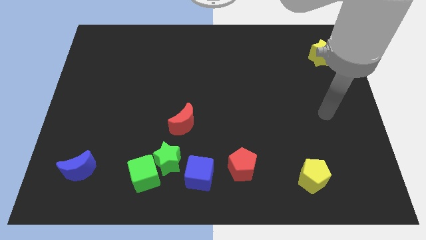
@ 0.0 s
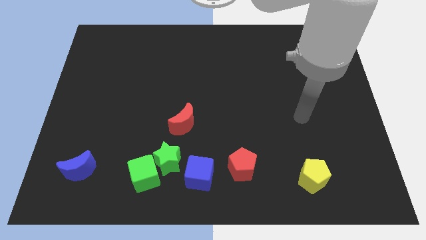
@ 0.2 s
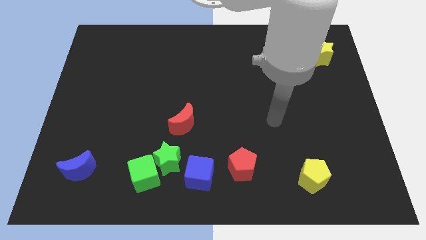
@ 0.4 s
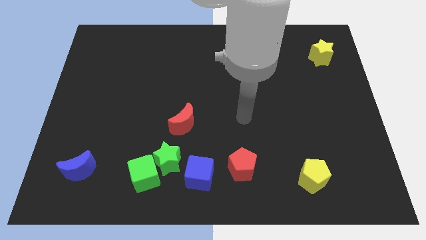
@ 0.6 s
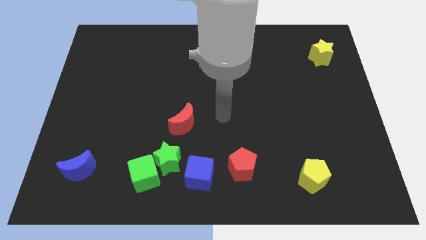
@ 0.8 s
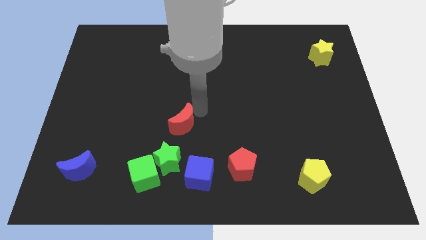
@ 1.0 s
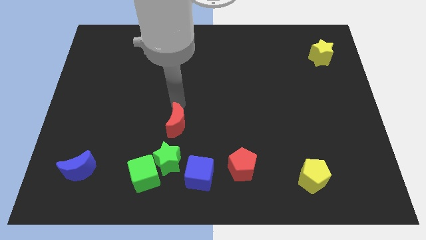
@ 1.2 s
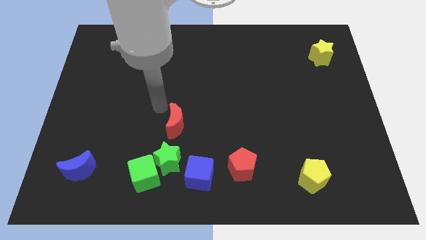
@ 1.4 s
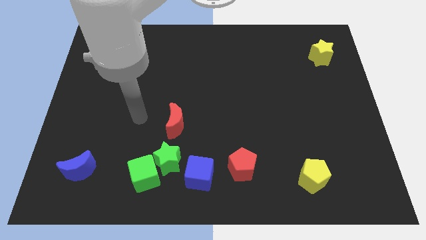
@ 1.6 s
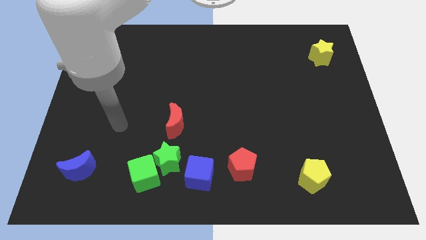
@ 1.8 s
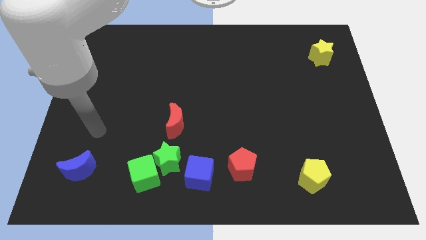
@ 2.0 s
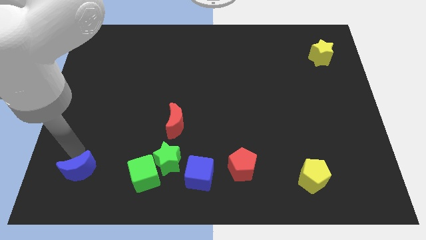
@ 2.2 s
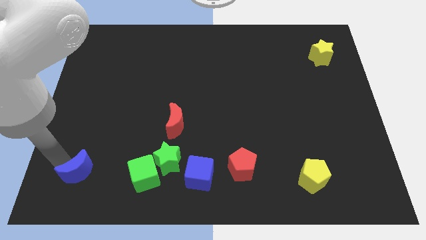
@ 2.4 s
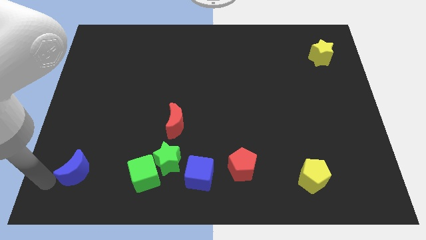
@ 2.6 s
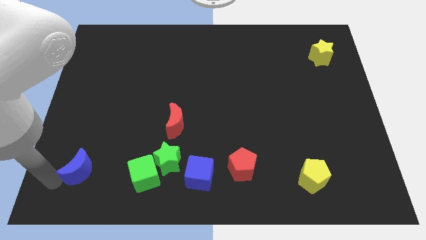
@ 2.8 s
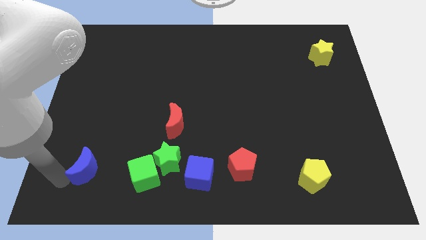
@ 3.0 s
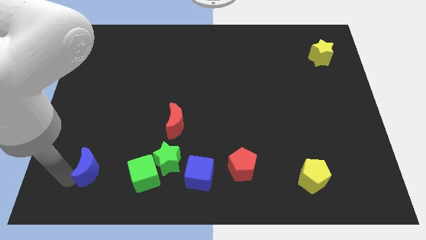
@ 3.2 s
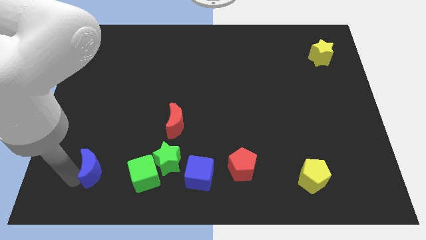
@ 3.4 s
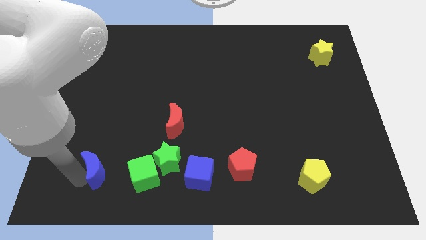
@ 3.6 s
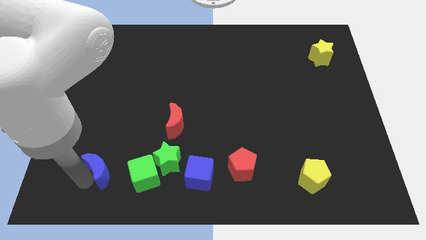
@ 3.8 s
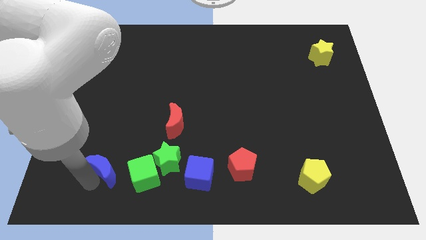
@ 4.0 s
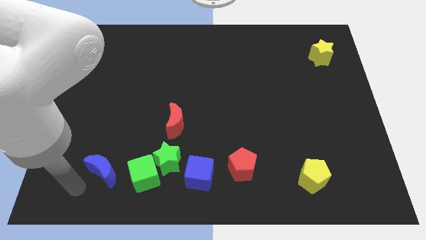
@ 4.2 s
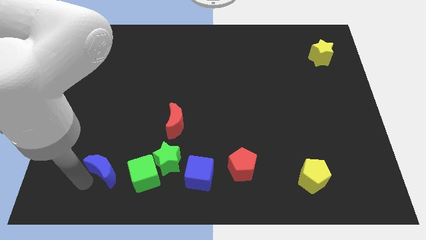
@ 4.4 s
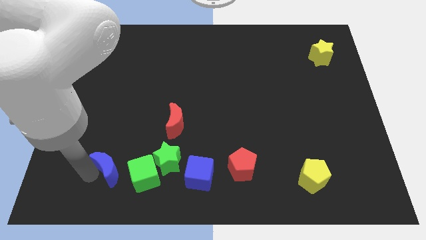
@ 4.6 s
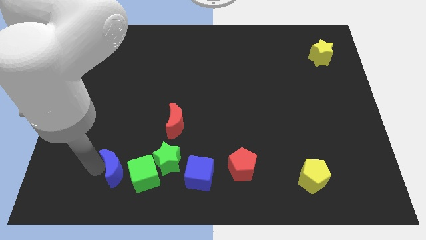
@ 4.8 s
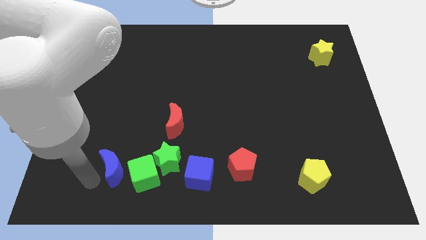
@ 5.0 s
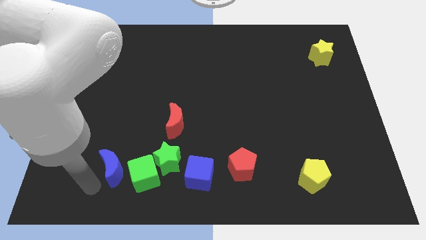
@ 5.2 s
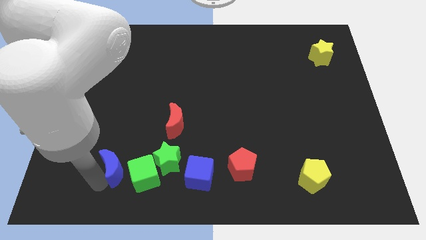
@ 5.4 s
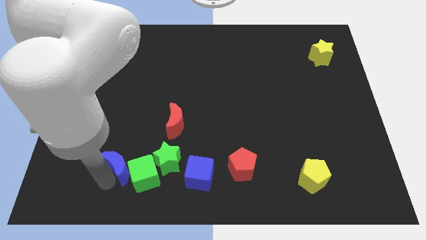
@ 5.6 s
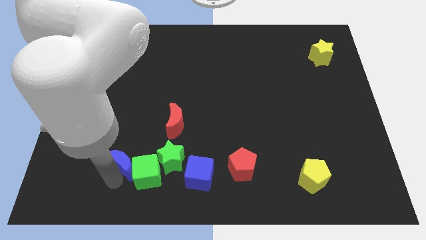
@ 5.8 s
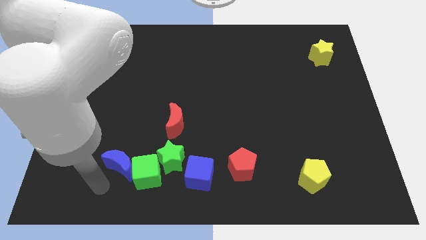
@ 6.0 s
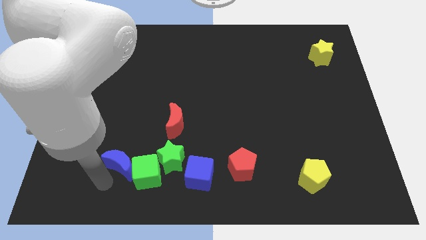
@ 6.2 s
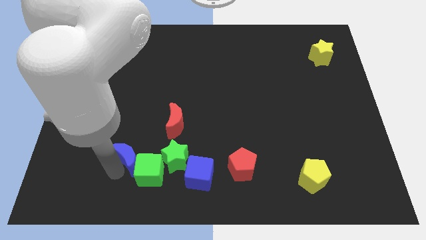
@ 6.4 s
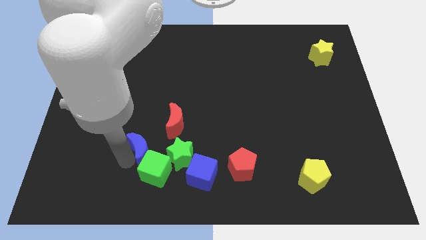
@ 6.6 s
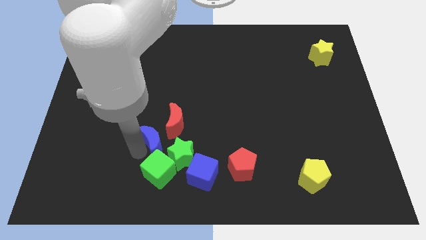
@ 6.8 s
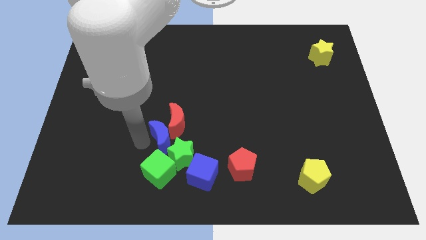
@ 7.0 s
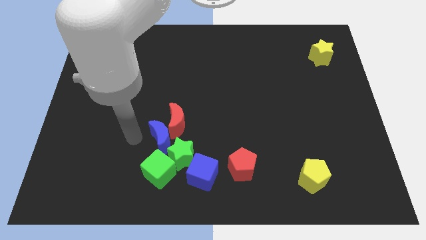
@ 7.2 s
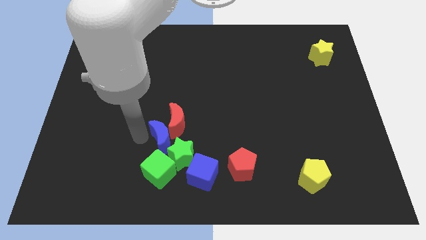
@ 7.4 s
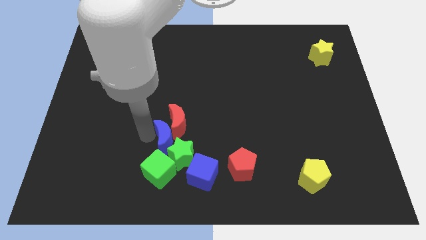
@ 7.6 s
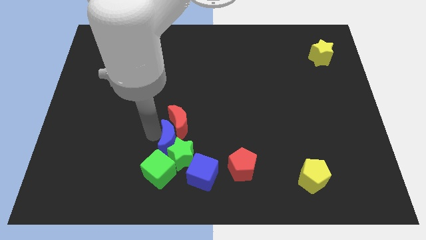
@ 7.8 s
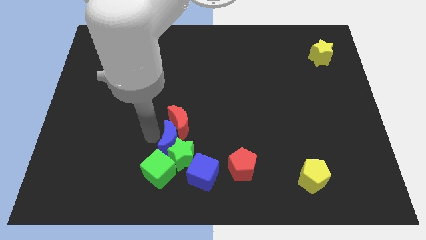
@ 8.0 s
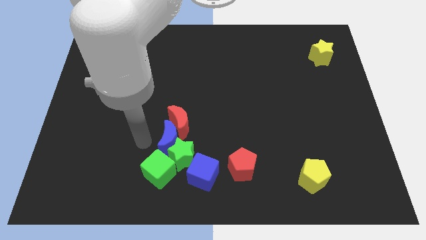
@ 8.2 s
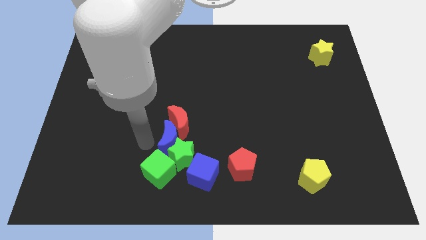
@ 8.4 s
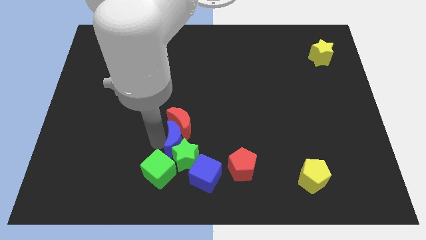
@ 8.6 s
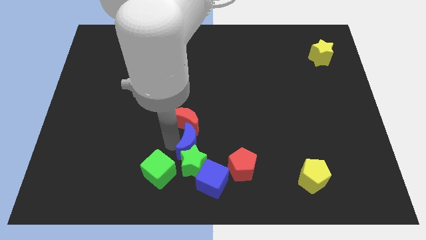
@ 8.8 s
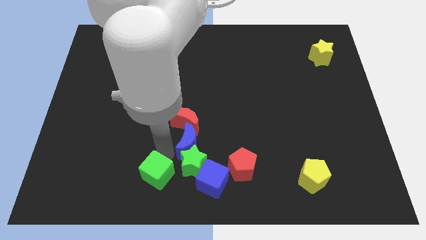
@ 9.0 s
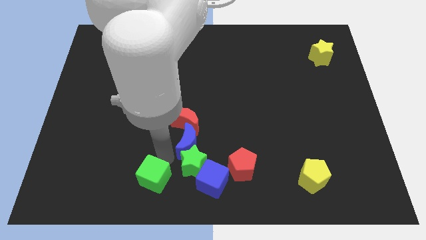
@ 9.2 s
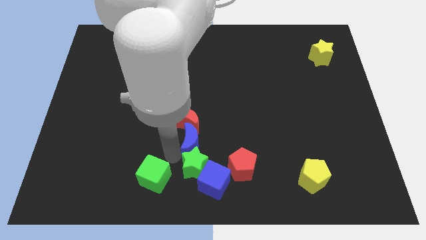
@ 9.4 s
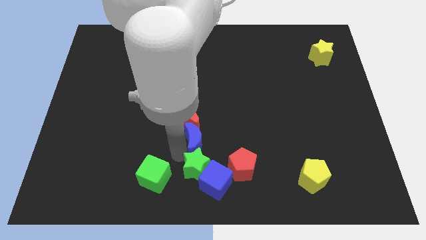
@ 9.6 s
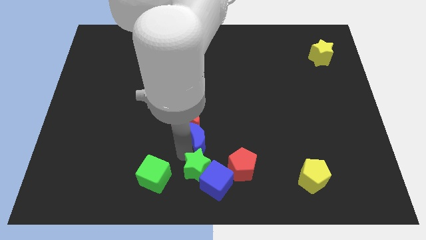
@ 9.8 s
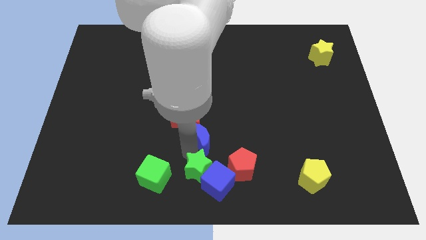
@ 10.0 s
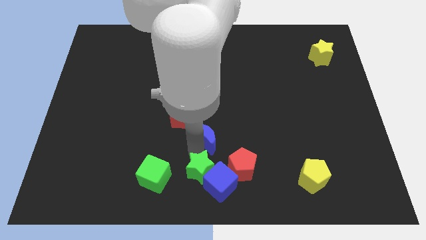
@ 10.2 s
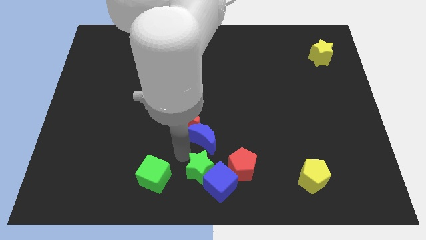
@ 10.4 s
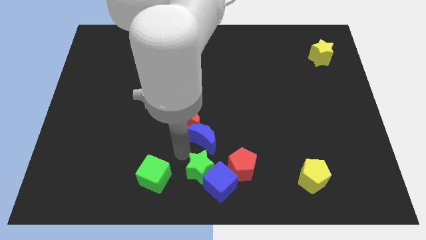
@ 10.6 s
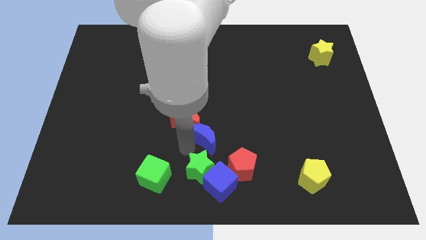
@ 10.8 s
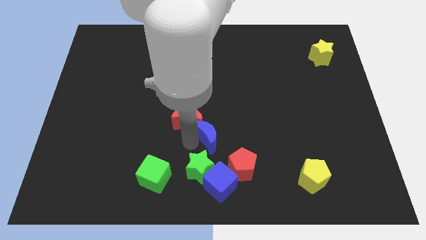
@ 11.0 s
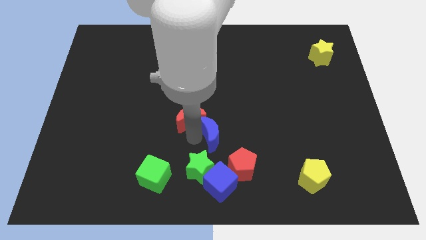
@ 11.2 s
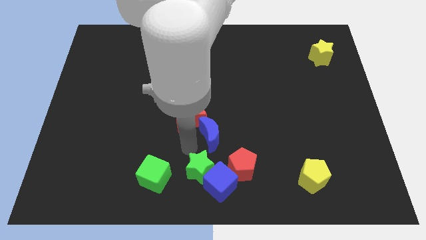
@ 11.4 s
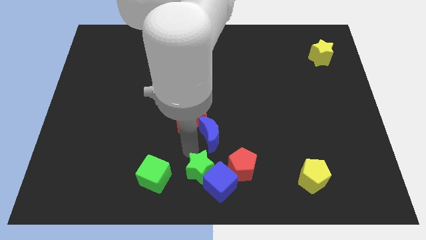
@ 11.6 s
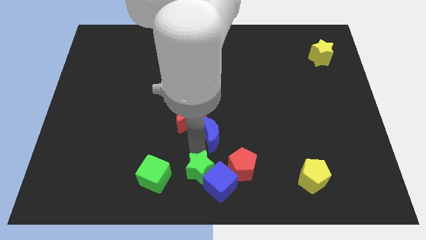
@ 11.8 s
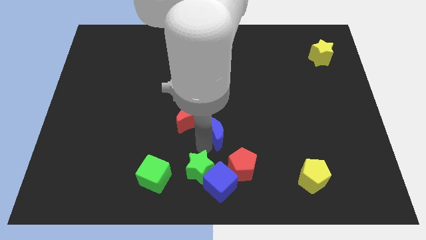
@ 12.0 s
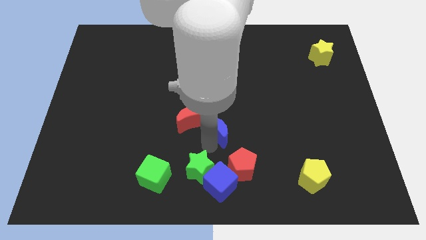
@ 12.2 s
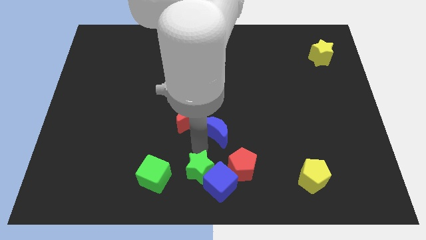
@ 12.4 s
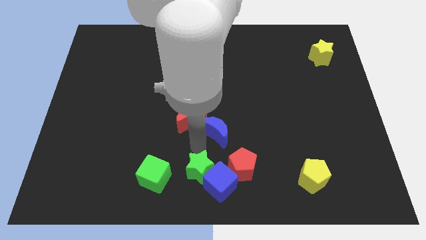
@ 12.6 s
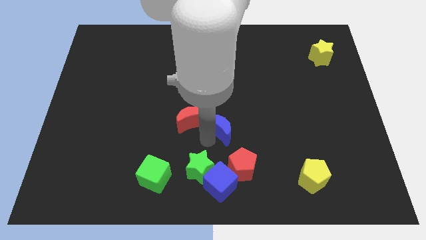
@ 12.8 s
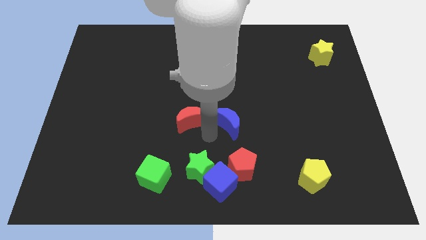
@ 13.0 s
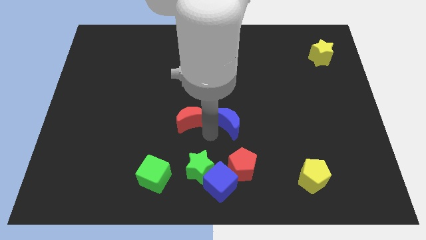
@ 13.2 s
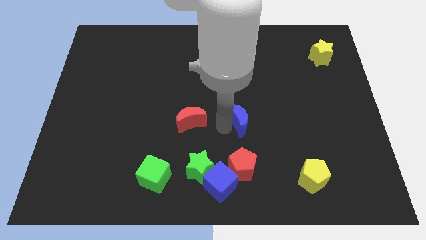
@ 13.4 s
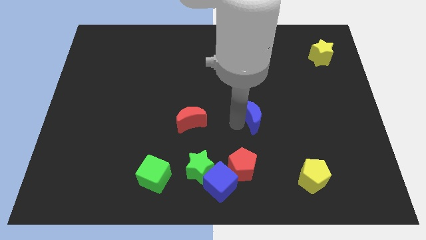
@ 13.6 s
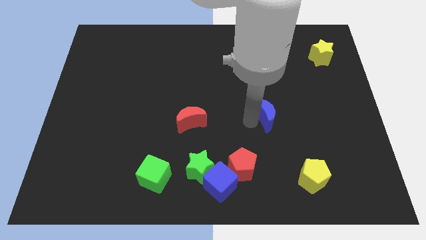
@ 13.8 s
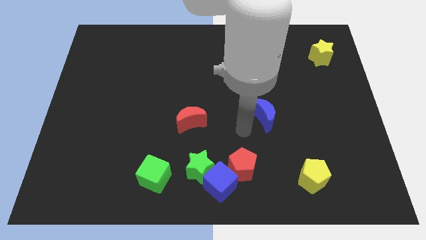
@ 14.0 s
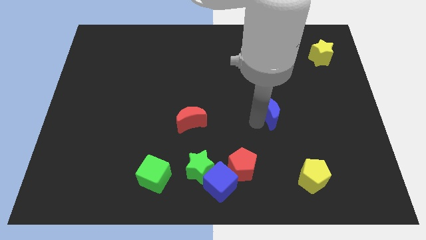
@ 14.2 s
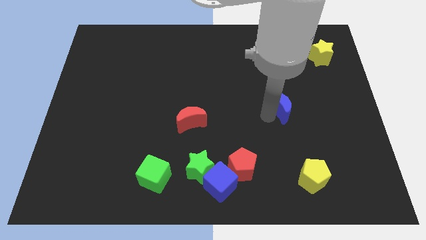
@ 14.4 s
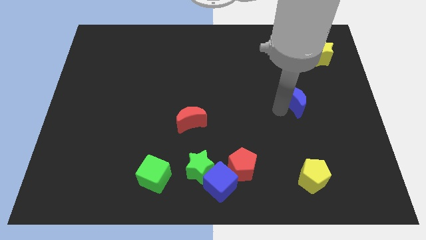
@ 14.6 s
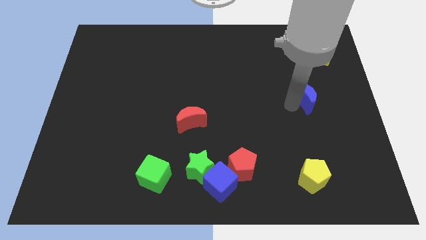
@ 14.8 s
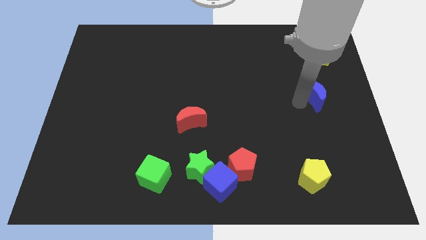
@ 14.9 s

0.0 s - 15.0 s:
move the blue moon to the bottom side of the yellow star
